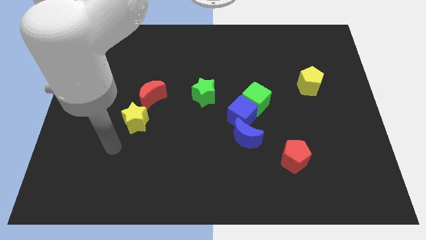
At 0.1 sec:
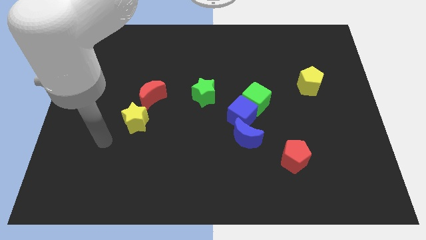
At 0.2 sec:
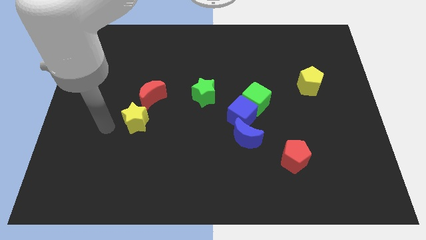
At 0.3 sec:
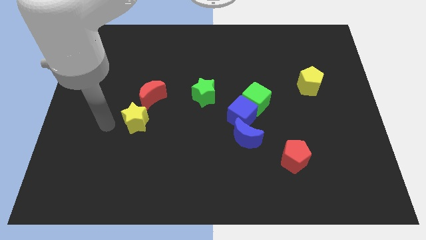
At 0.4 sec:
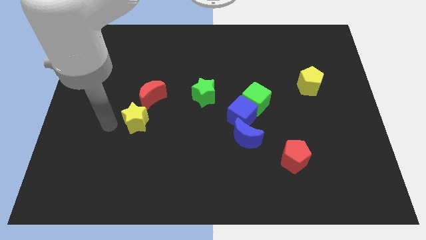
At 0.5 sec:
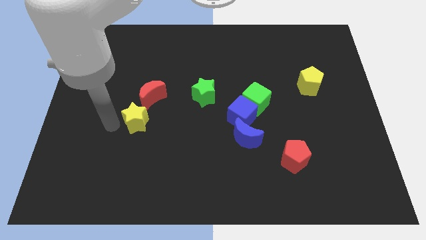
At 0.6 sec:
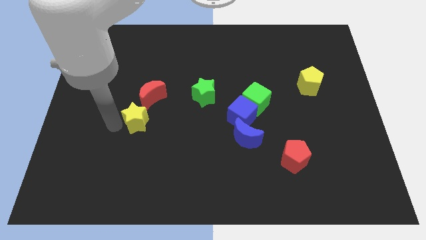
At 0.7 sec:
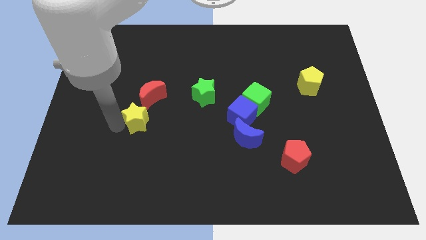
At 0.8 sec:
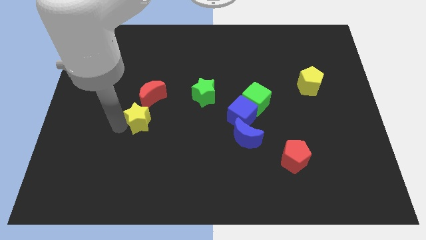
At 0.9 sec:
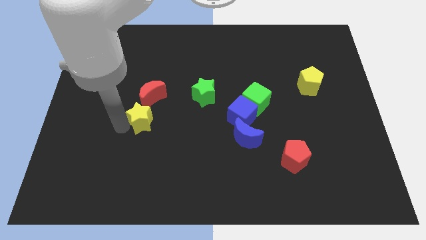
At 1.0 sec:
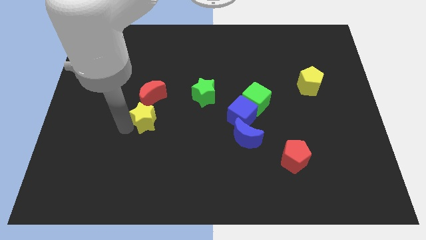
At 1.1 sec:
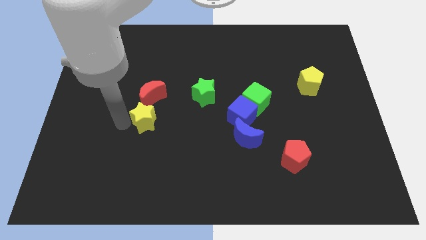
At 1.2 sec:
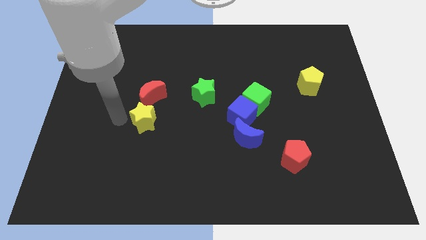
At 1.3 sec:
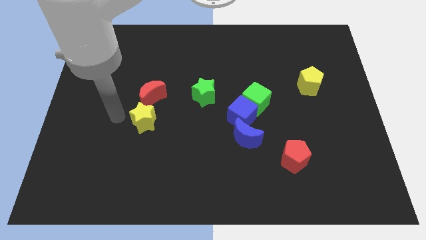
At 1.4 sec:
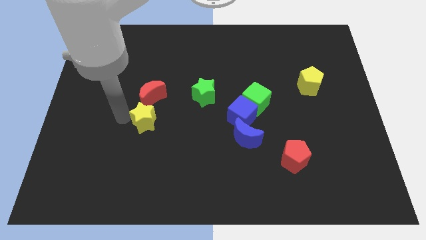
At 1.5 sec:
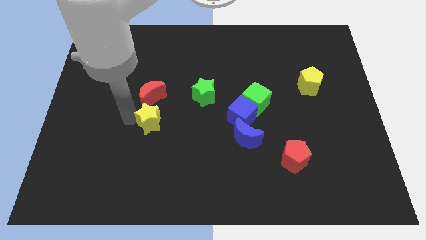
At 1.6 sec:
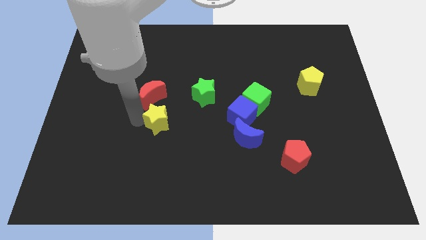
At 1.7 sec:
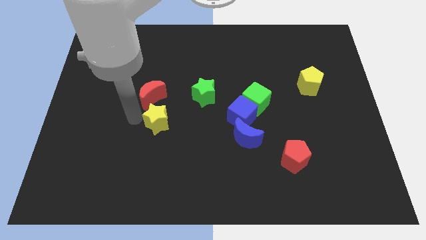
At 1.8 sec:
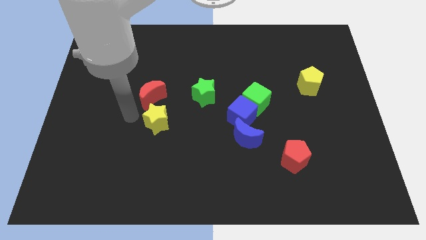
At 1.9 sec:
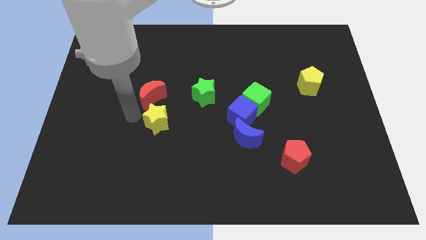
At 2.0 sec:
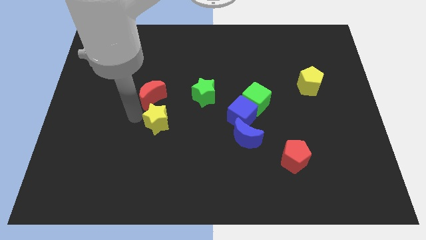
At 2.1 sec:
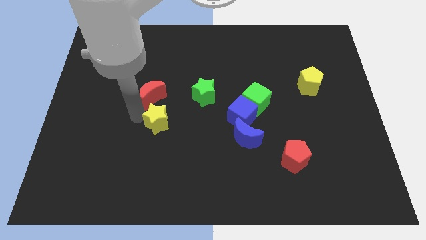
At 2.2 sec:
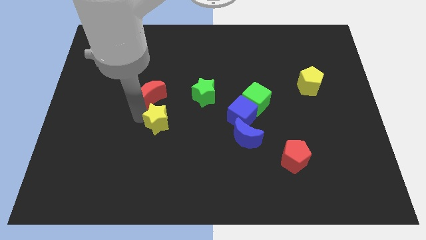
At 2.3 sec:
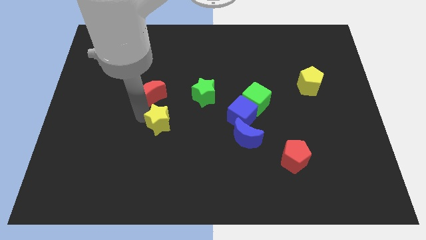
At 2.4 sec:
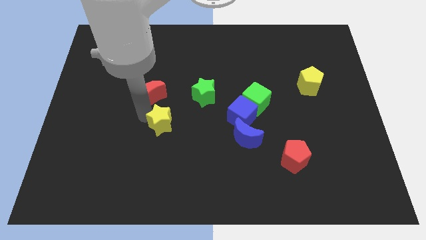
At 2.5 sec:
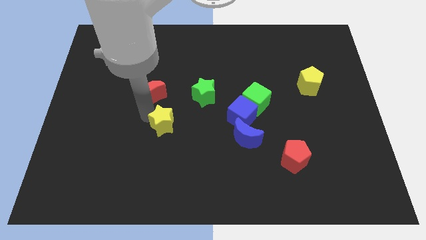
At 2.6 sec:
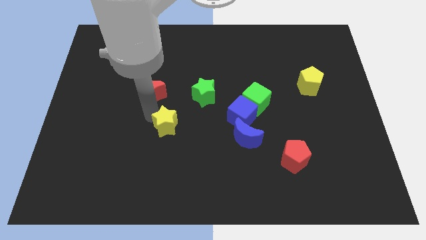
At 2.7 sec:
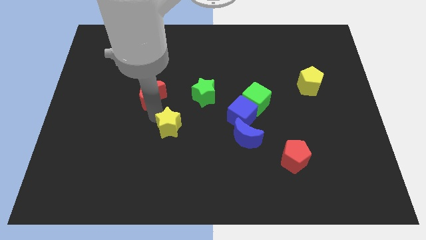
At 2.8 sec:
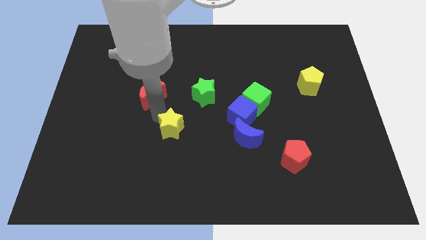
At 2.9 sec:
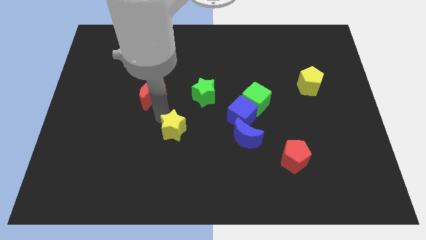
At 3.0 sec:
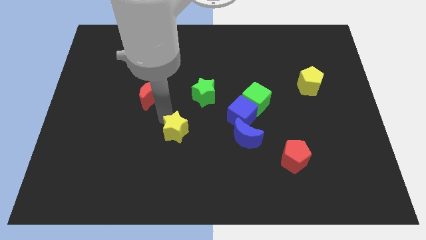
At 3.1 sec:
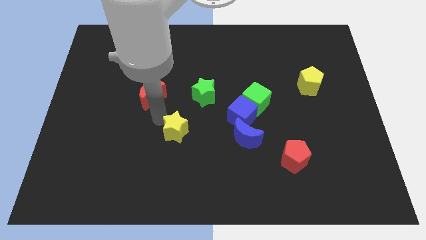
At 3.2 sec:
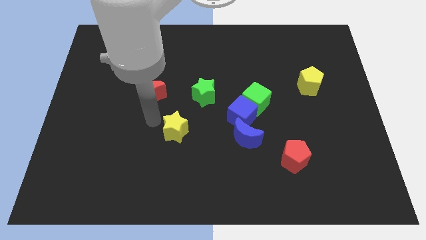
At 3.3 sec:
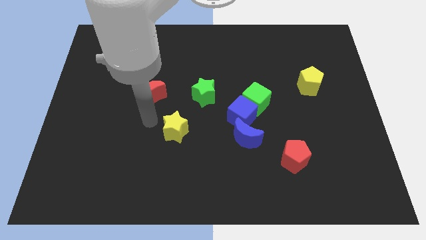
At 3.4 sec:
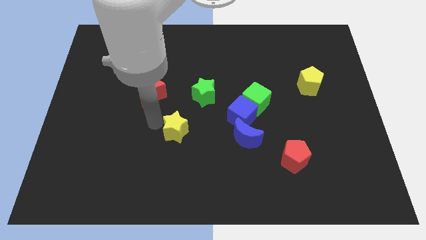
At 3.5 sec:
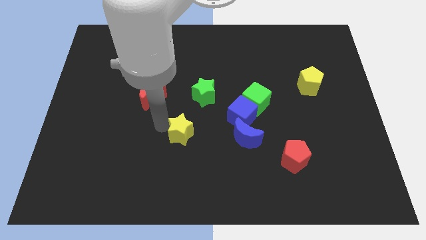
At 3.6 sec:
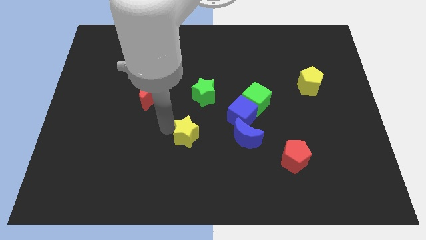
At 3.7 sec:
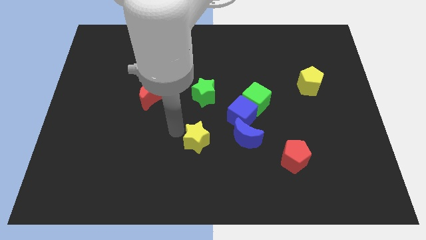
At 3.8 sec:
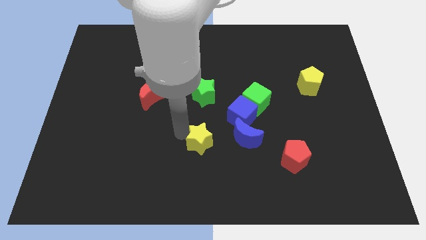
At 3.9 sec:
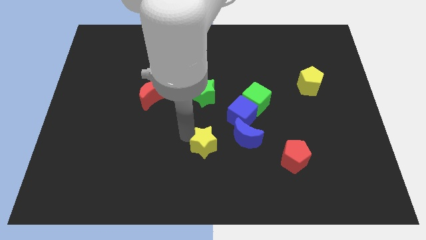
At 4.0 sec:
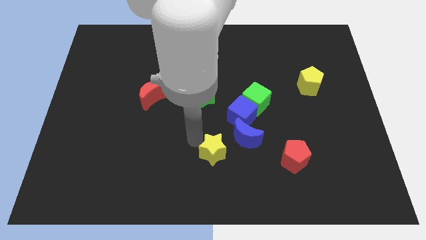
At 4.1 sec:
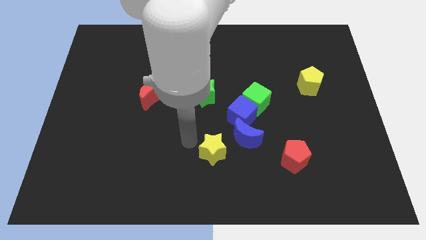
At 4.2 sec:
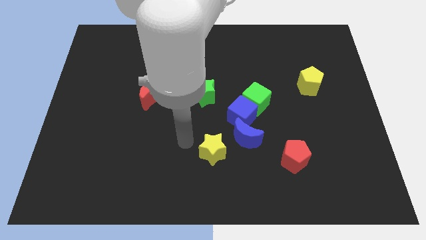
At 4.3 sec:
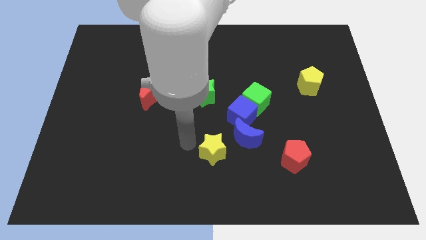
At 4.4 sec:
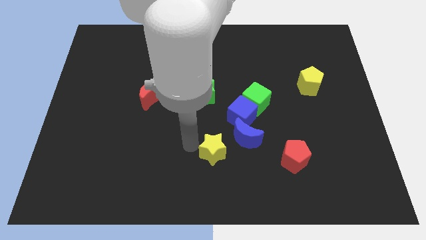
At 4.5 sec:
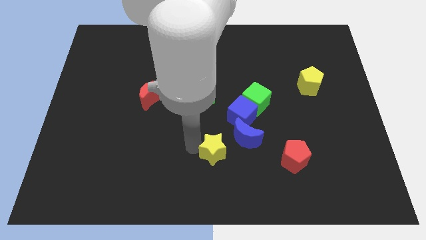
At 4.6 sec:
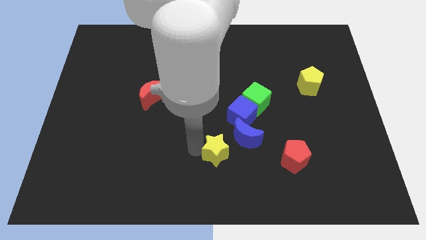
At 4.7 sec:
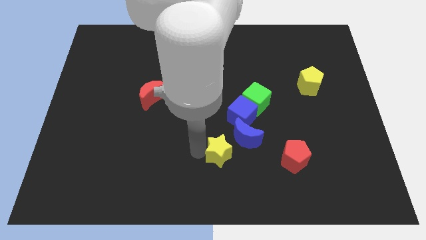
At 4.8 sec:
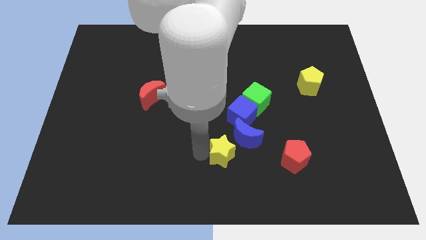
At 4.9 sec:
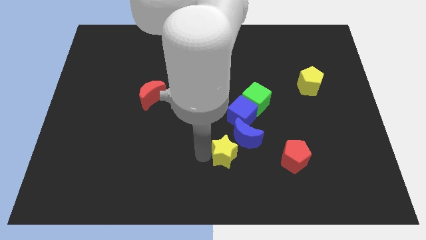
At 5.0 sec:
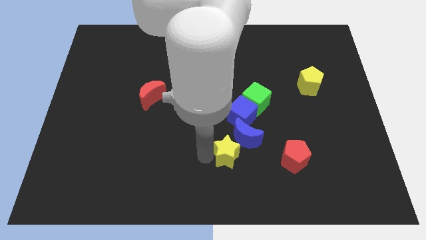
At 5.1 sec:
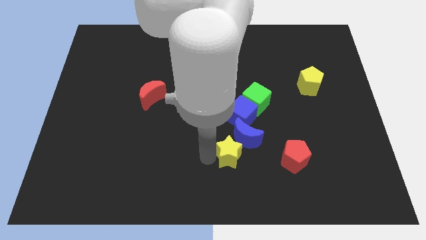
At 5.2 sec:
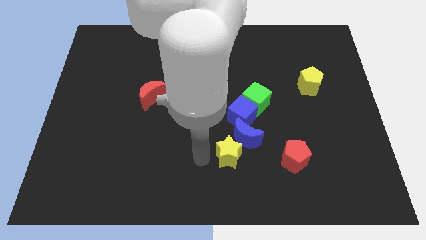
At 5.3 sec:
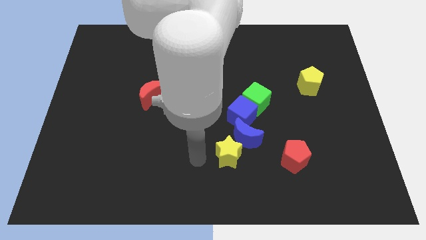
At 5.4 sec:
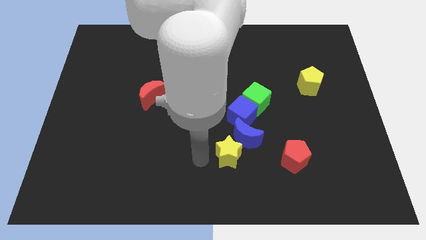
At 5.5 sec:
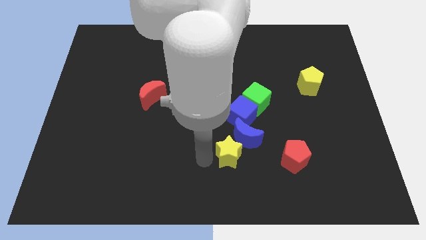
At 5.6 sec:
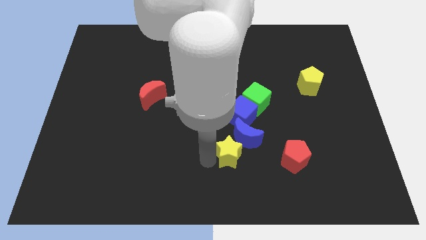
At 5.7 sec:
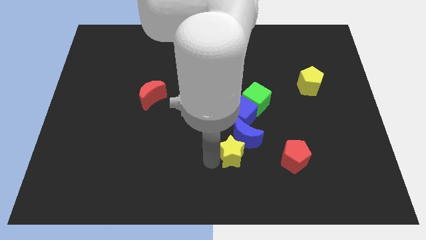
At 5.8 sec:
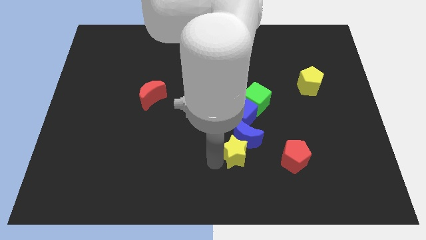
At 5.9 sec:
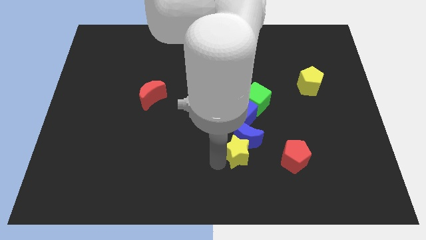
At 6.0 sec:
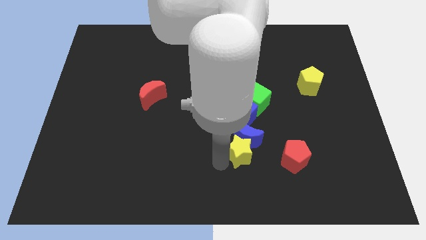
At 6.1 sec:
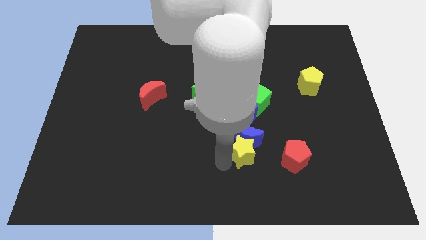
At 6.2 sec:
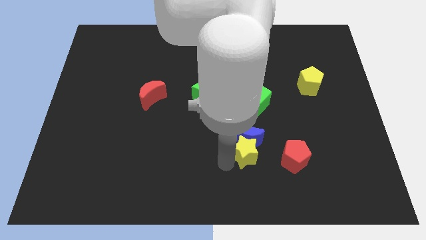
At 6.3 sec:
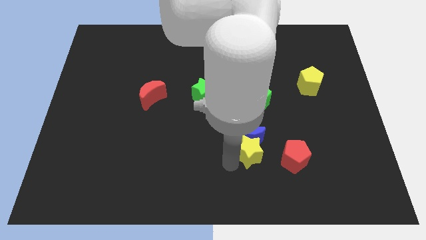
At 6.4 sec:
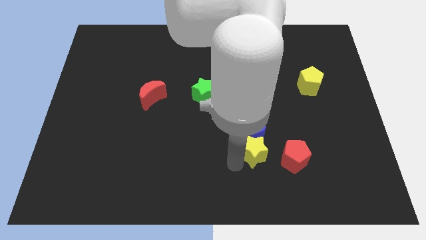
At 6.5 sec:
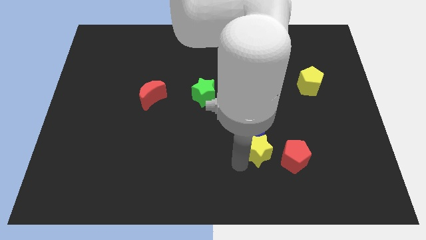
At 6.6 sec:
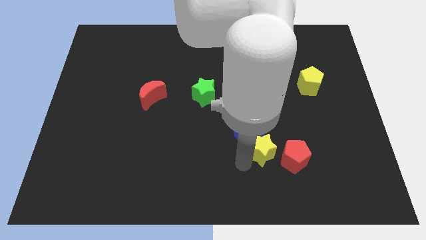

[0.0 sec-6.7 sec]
move the yellow star to the bottom right of the blue cube

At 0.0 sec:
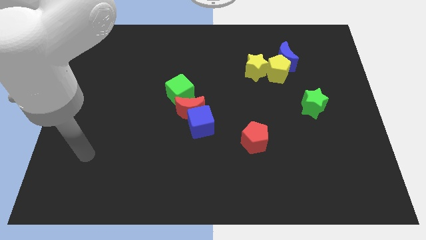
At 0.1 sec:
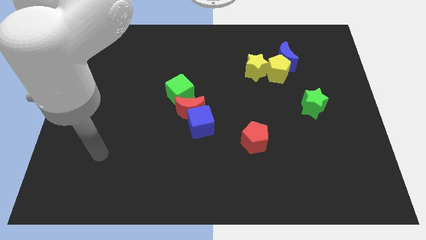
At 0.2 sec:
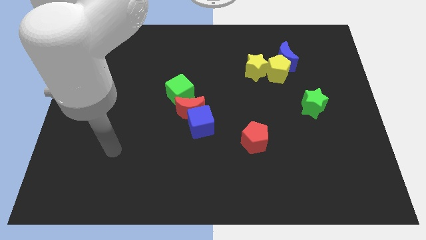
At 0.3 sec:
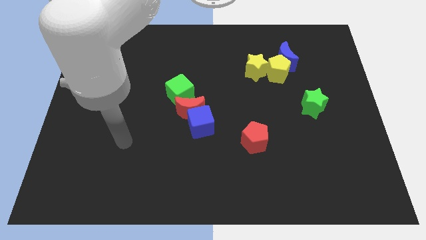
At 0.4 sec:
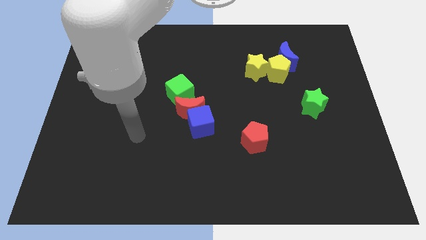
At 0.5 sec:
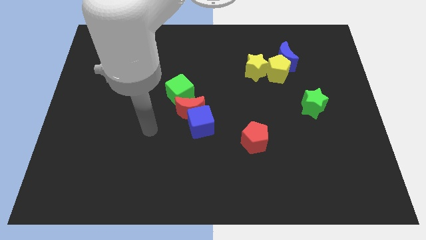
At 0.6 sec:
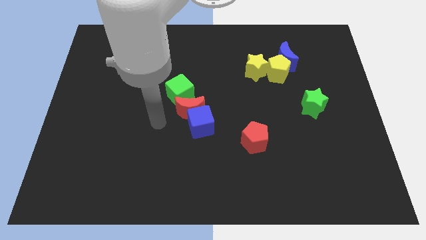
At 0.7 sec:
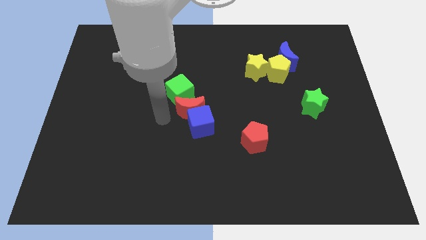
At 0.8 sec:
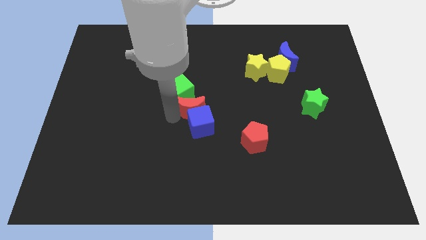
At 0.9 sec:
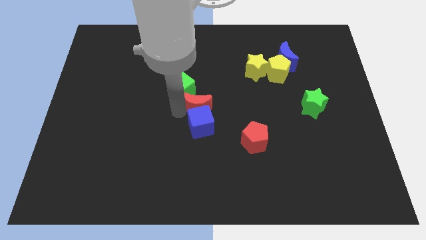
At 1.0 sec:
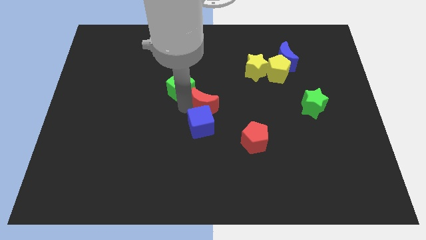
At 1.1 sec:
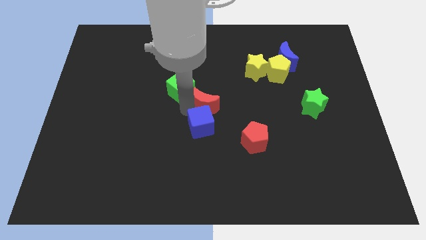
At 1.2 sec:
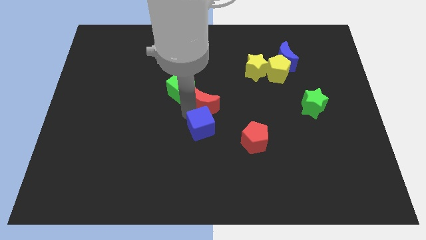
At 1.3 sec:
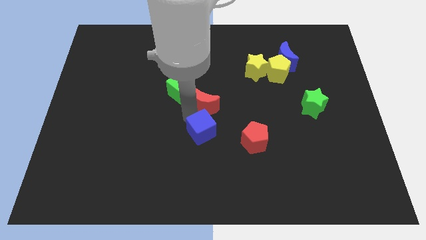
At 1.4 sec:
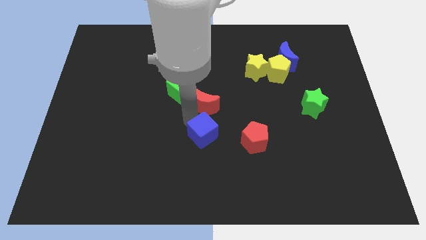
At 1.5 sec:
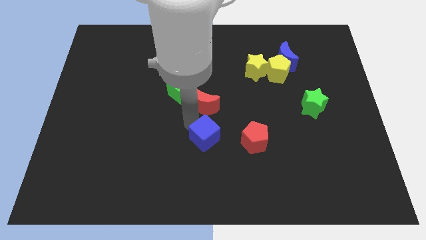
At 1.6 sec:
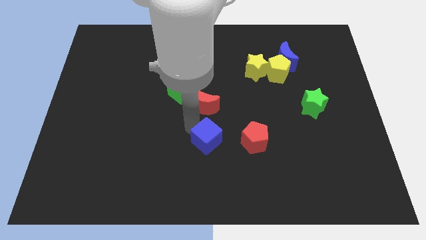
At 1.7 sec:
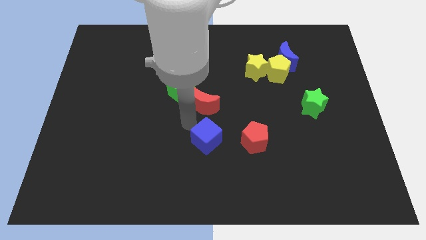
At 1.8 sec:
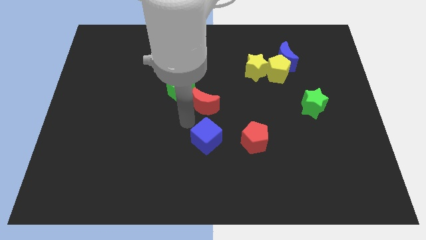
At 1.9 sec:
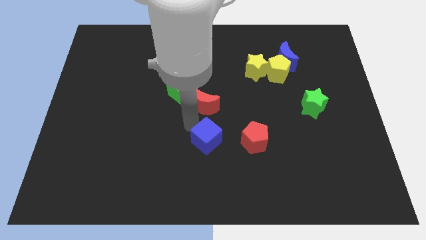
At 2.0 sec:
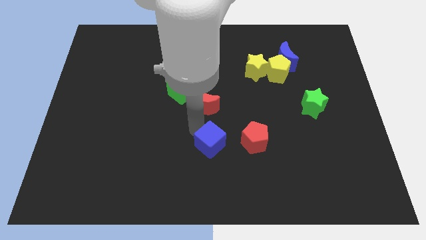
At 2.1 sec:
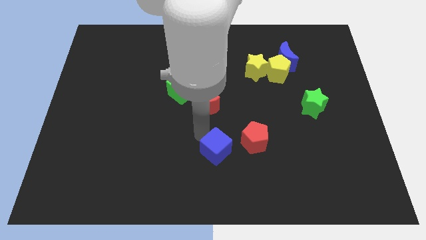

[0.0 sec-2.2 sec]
move the blue cube to the bottom left side of the red pentagon
